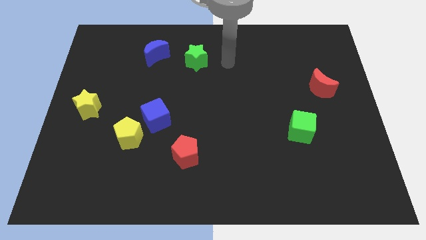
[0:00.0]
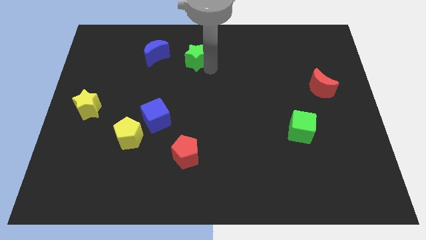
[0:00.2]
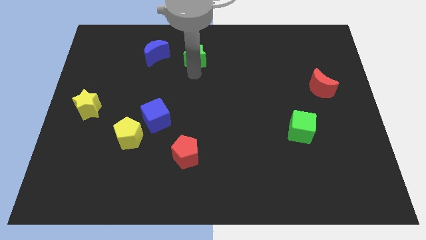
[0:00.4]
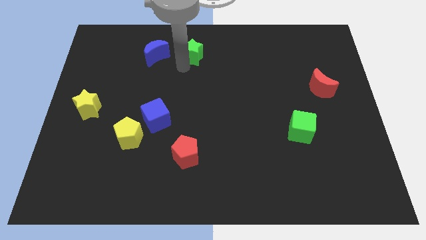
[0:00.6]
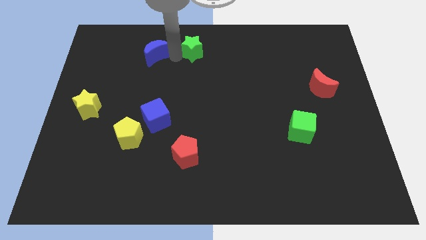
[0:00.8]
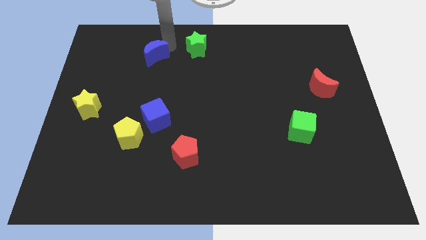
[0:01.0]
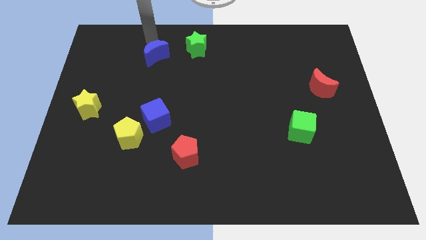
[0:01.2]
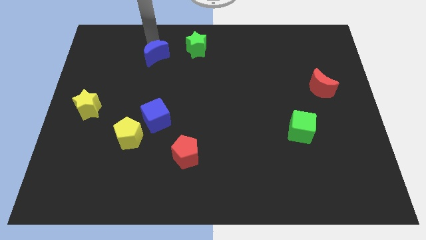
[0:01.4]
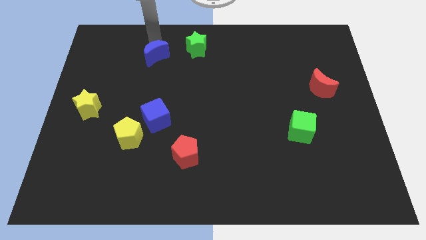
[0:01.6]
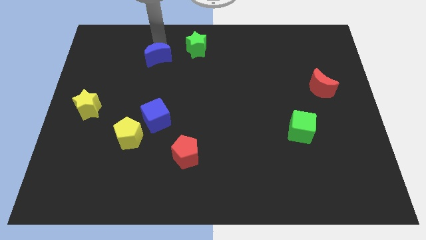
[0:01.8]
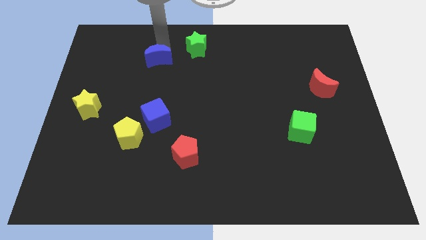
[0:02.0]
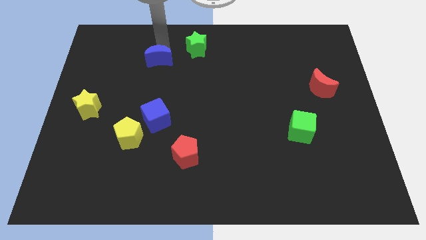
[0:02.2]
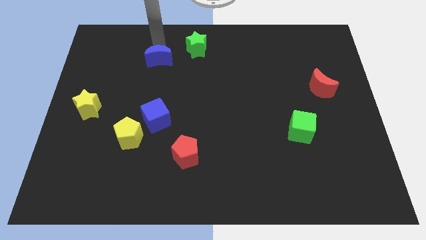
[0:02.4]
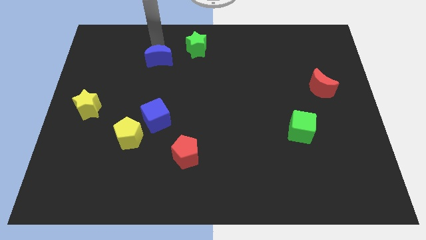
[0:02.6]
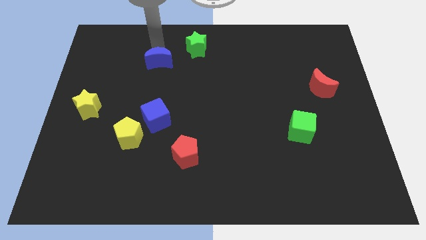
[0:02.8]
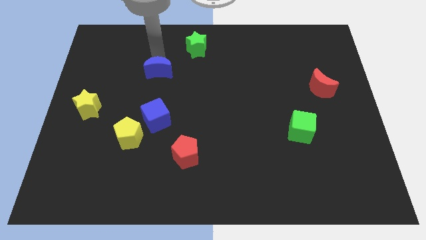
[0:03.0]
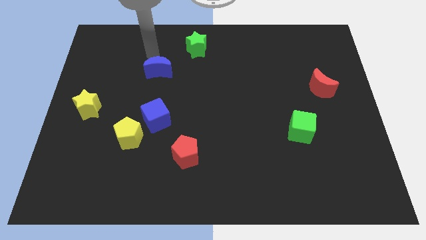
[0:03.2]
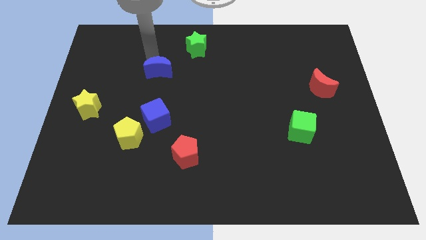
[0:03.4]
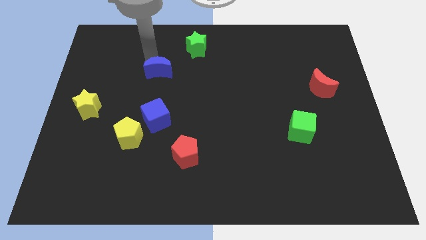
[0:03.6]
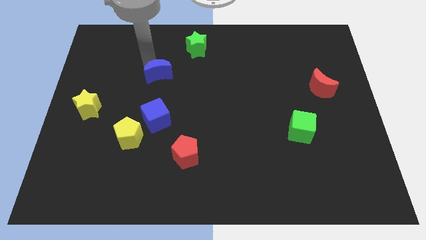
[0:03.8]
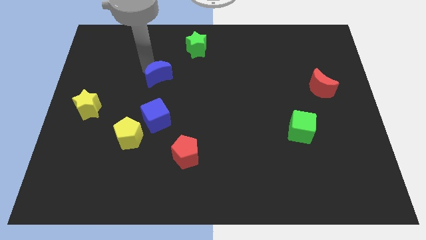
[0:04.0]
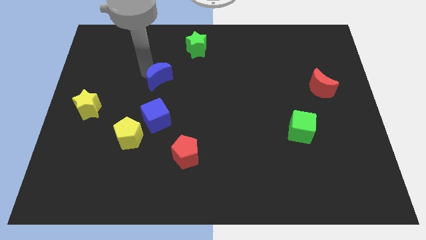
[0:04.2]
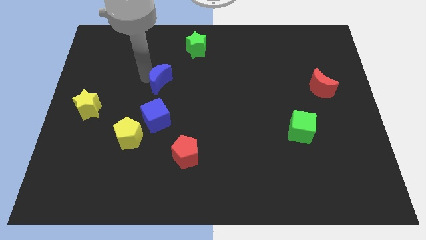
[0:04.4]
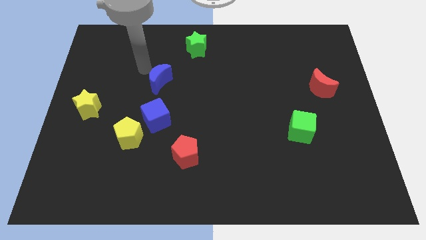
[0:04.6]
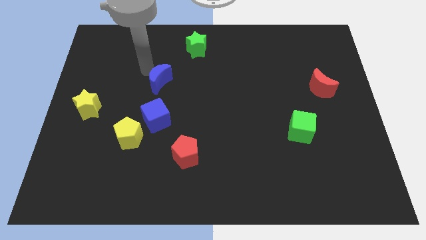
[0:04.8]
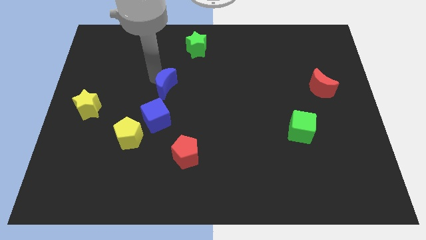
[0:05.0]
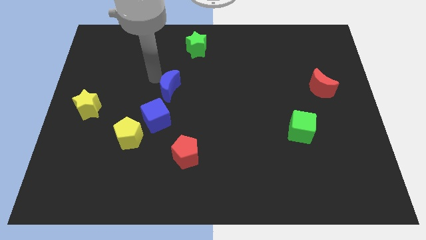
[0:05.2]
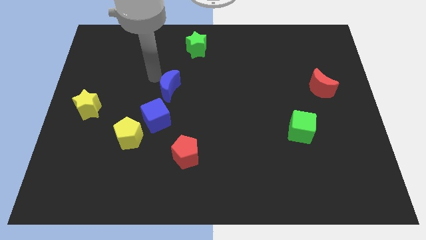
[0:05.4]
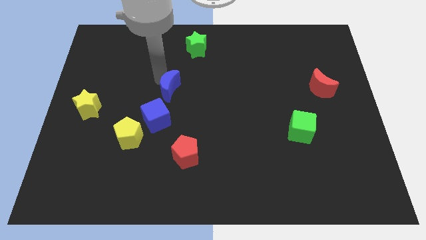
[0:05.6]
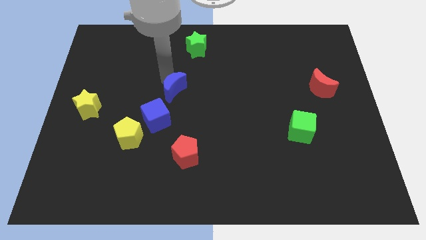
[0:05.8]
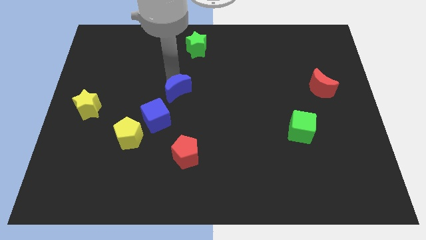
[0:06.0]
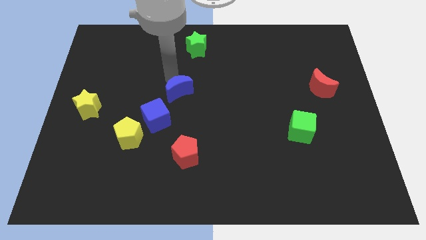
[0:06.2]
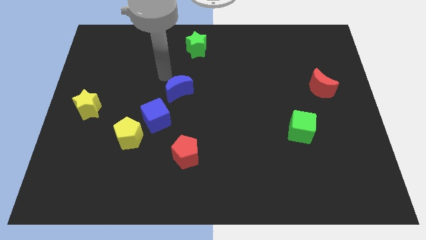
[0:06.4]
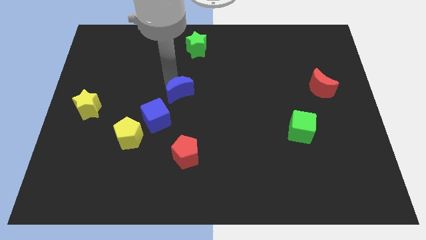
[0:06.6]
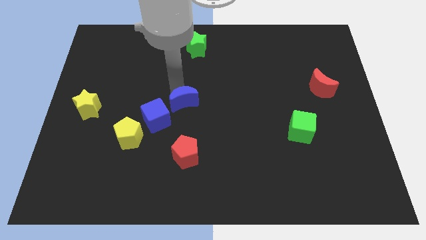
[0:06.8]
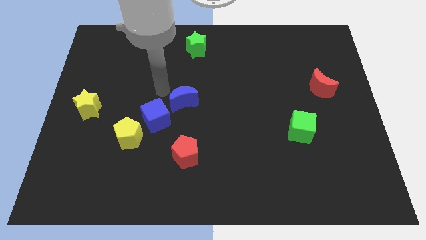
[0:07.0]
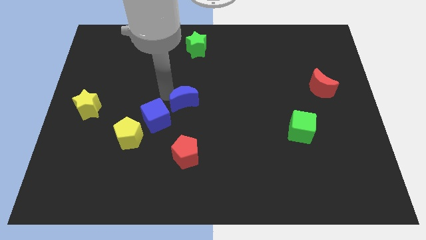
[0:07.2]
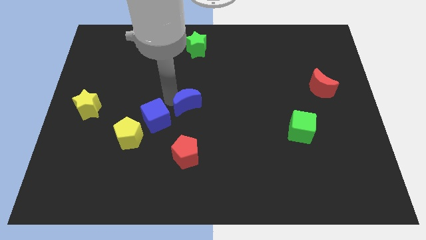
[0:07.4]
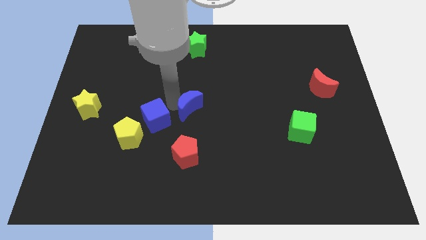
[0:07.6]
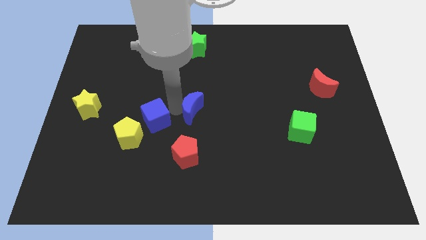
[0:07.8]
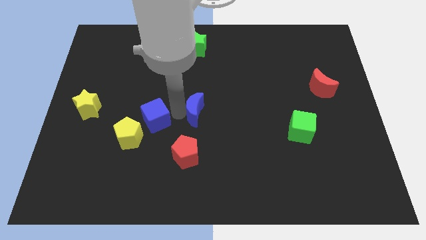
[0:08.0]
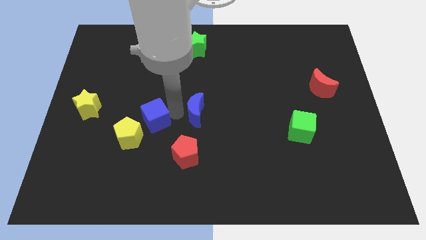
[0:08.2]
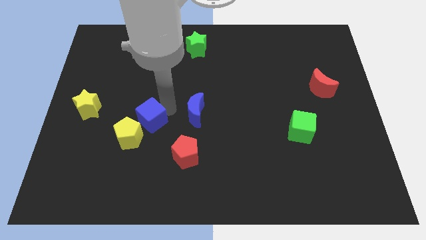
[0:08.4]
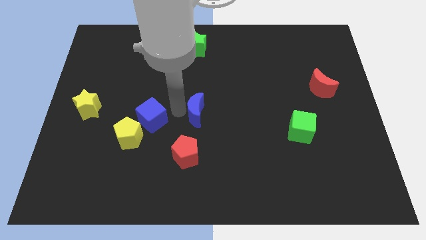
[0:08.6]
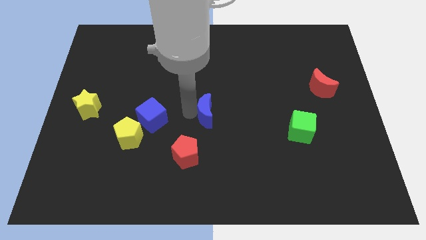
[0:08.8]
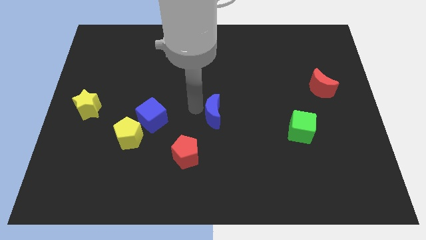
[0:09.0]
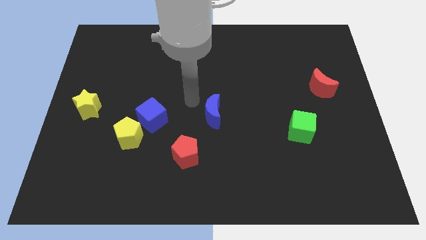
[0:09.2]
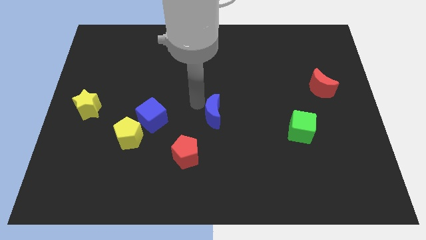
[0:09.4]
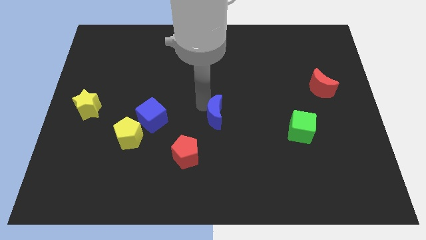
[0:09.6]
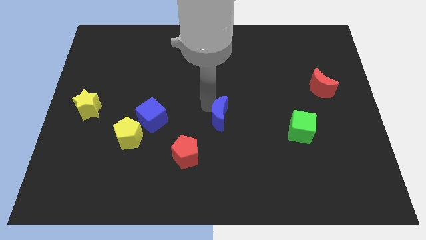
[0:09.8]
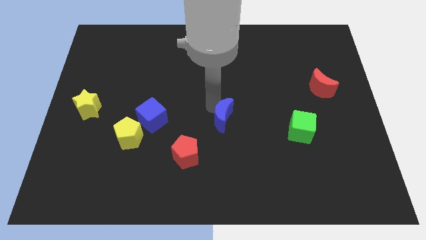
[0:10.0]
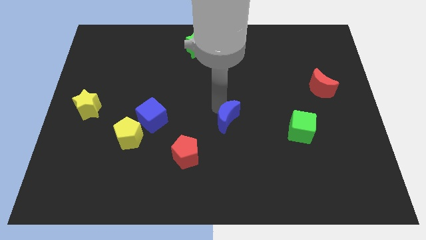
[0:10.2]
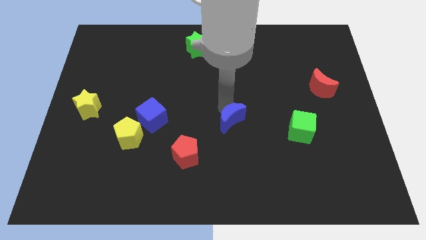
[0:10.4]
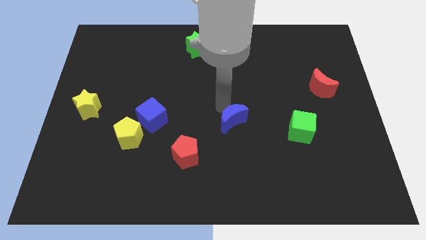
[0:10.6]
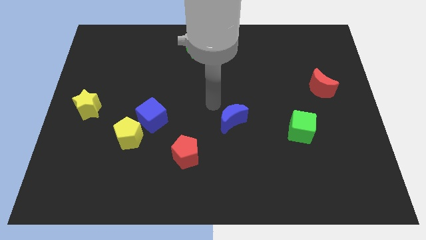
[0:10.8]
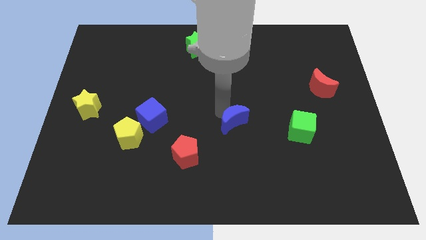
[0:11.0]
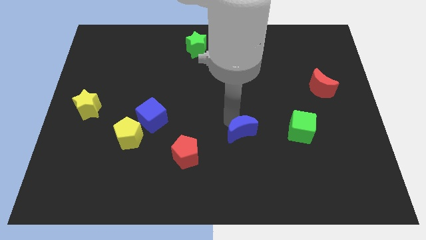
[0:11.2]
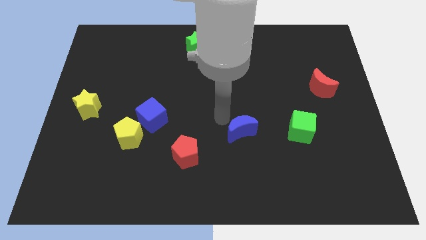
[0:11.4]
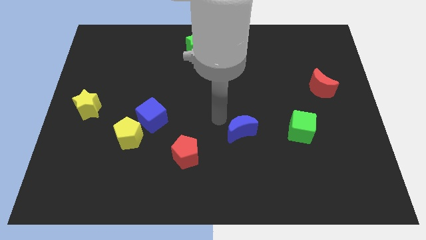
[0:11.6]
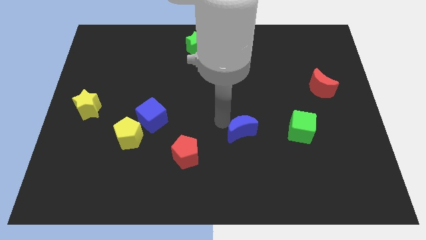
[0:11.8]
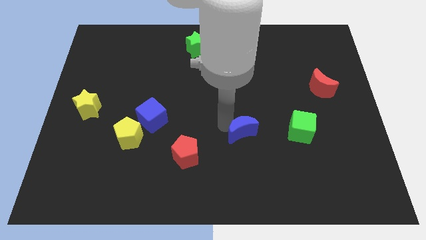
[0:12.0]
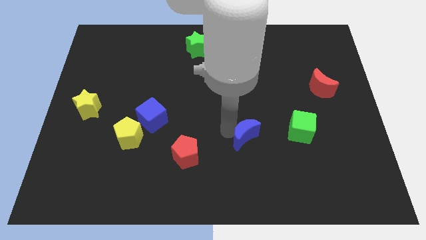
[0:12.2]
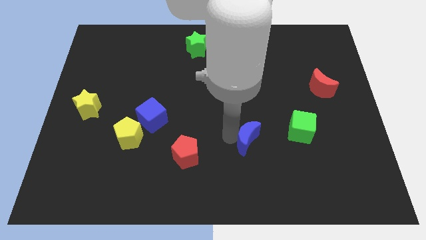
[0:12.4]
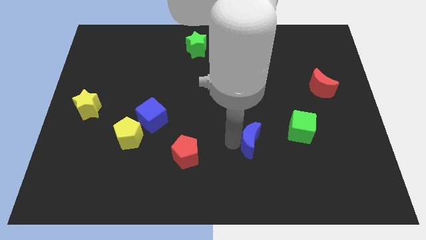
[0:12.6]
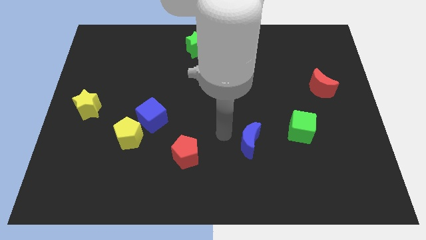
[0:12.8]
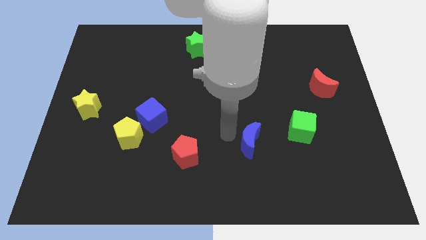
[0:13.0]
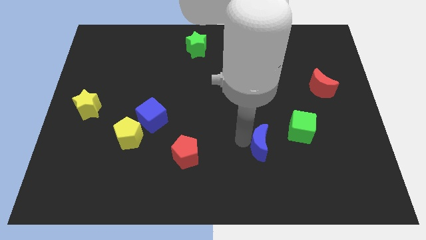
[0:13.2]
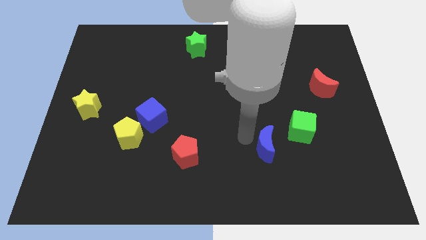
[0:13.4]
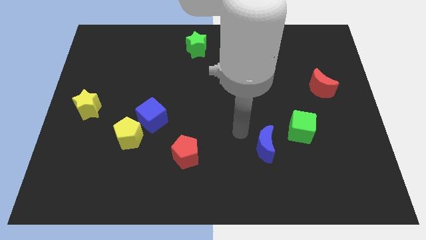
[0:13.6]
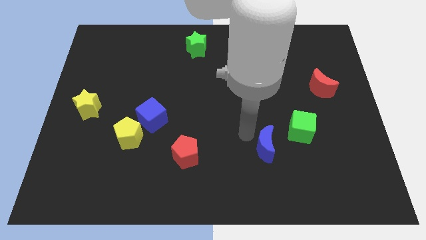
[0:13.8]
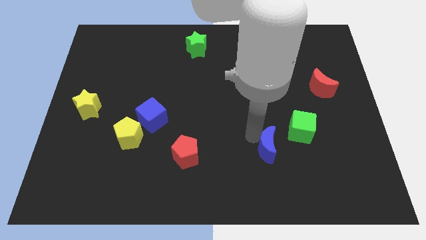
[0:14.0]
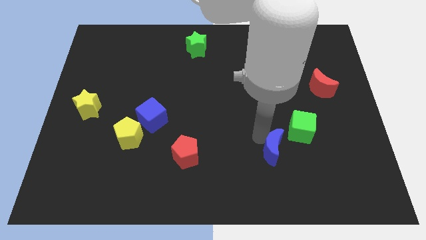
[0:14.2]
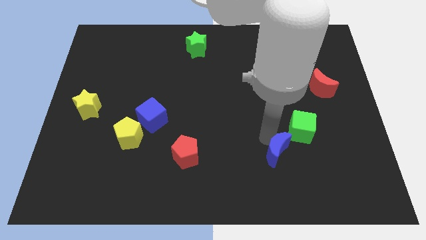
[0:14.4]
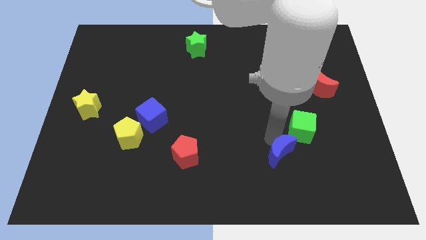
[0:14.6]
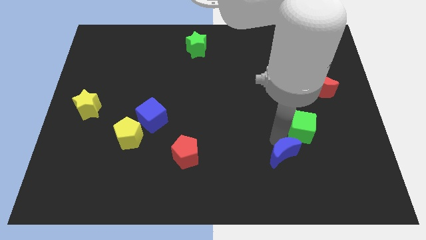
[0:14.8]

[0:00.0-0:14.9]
put the blue moon to the bottom side of the green cube
